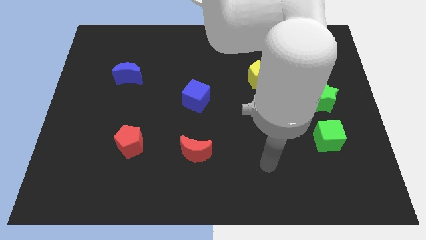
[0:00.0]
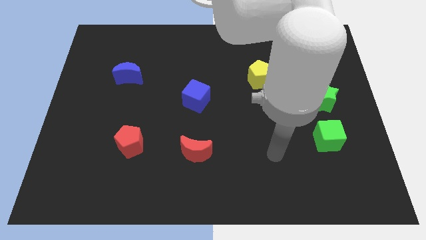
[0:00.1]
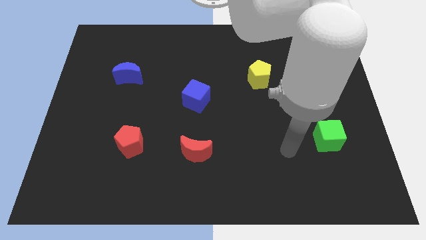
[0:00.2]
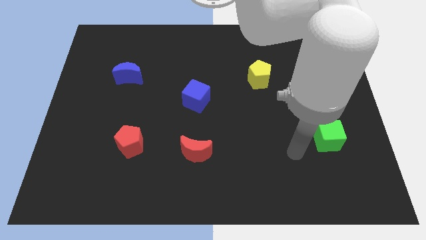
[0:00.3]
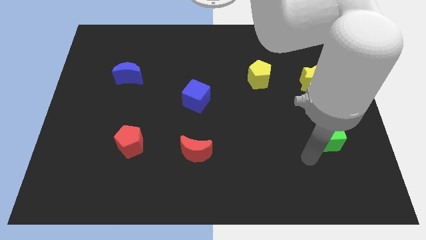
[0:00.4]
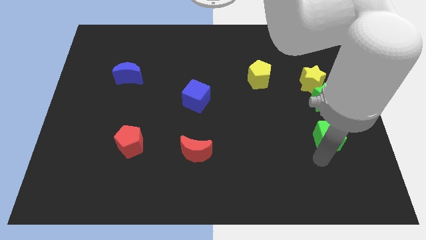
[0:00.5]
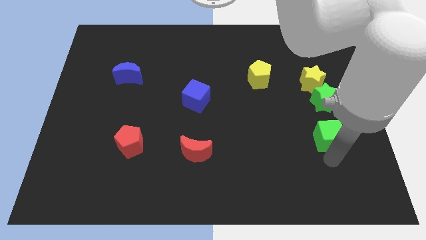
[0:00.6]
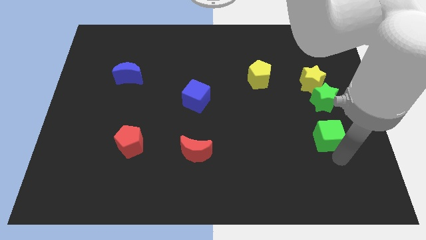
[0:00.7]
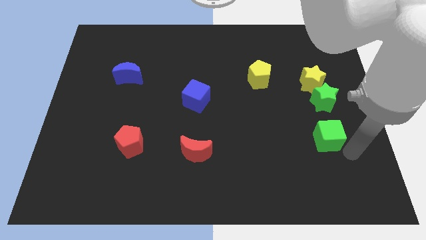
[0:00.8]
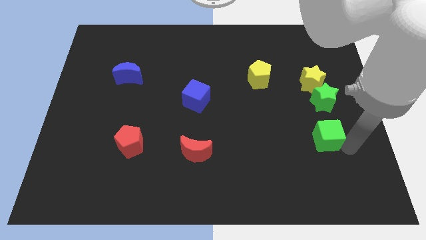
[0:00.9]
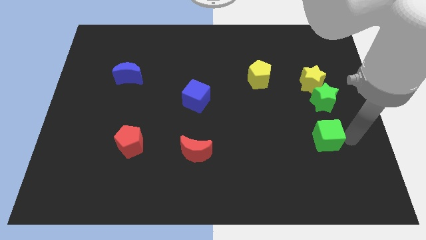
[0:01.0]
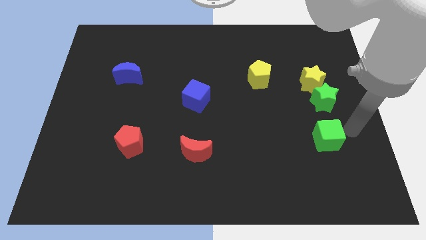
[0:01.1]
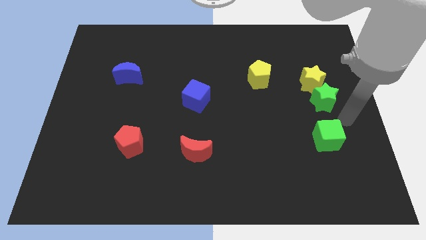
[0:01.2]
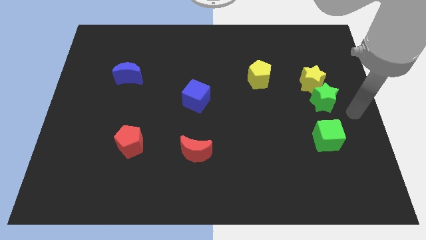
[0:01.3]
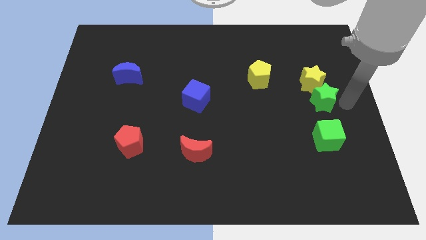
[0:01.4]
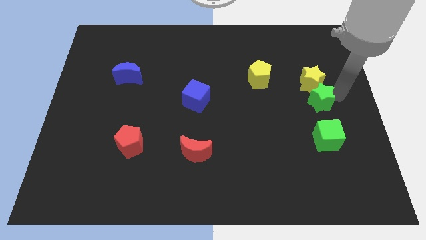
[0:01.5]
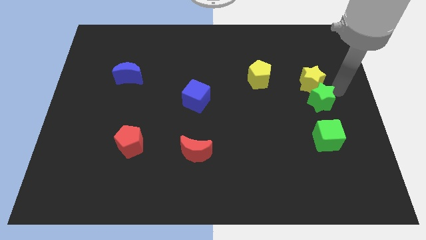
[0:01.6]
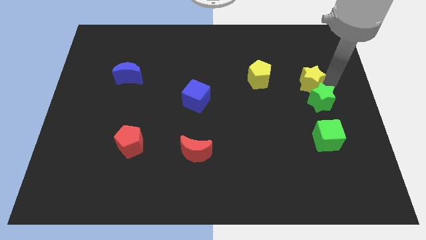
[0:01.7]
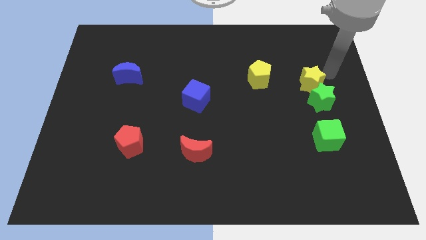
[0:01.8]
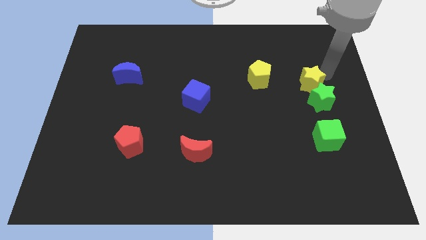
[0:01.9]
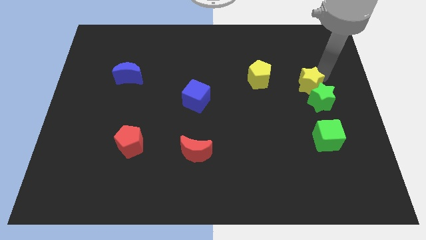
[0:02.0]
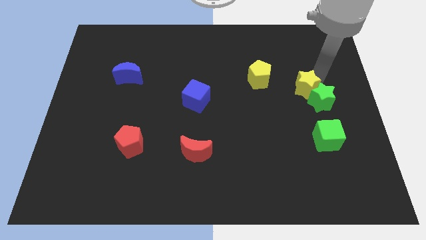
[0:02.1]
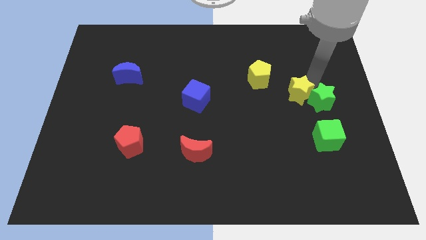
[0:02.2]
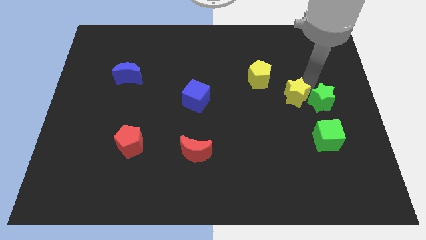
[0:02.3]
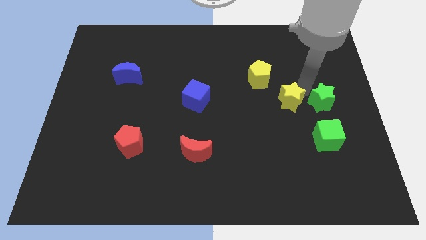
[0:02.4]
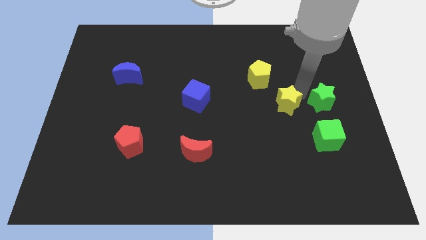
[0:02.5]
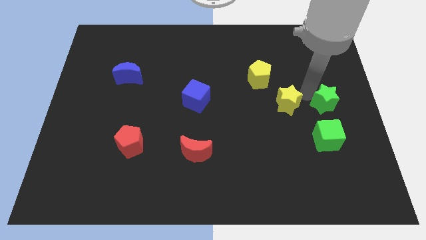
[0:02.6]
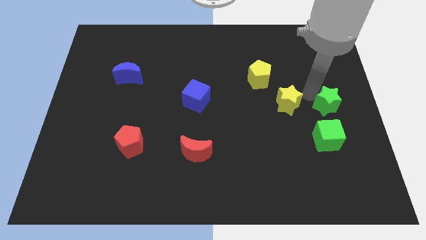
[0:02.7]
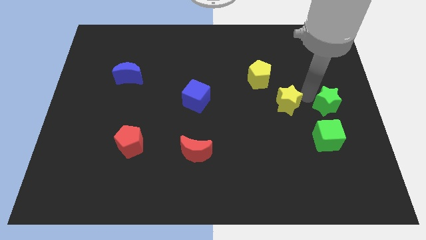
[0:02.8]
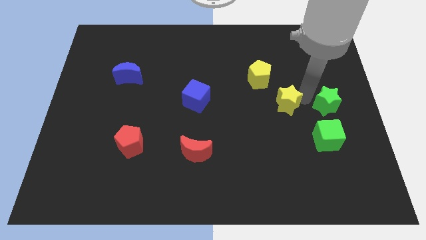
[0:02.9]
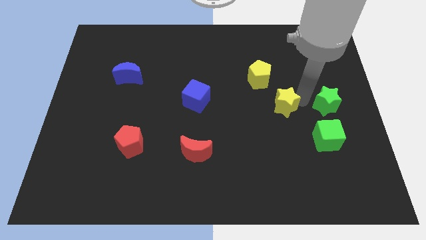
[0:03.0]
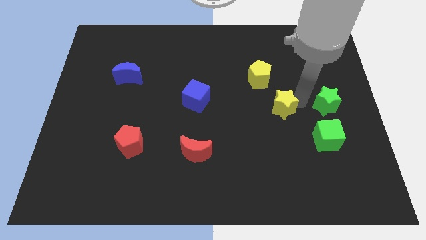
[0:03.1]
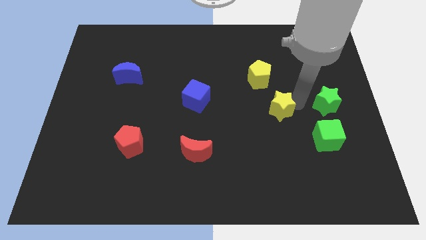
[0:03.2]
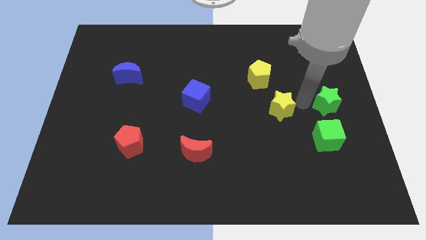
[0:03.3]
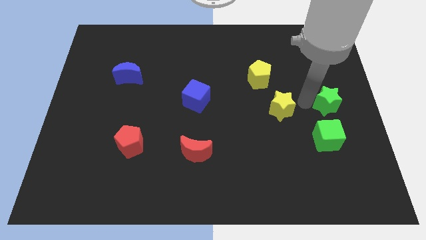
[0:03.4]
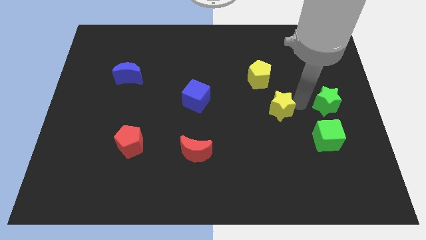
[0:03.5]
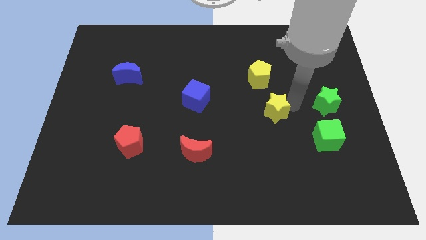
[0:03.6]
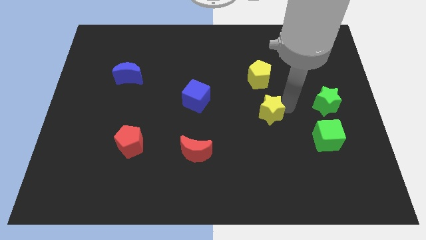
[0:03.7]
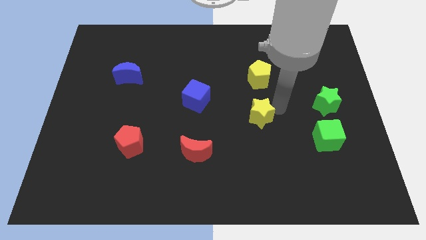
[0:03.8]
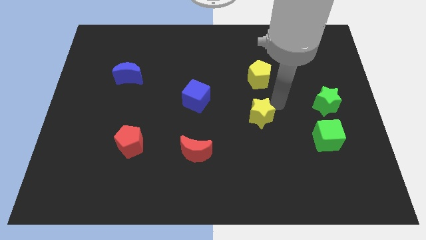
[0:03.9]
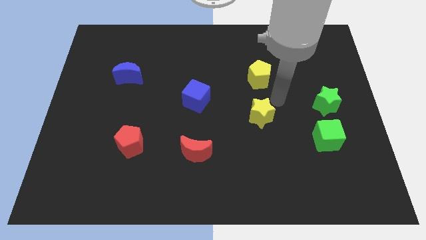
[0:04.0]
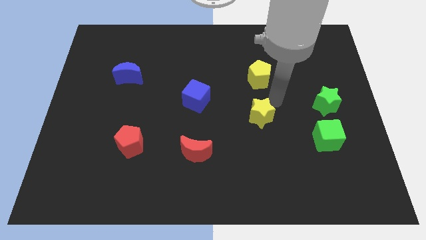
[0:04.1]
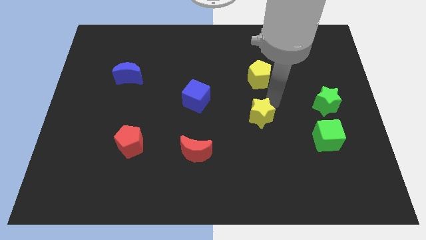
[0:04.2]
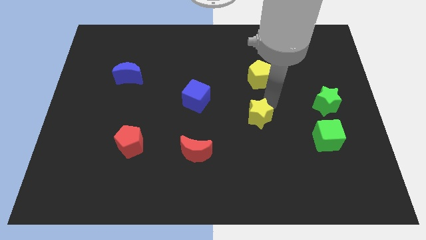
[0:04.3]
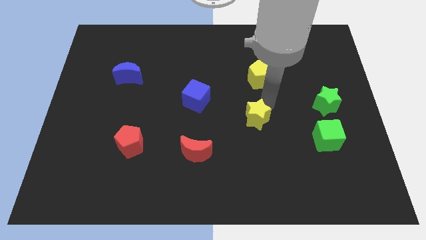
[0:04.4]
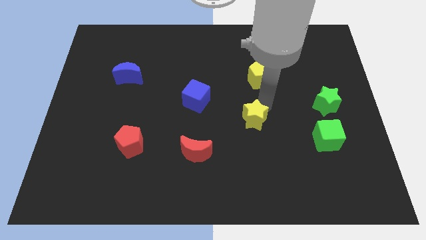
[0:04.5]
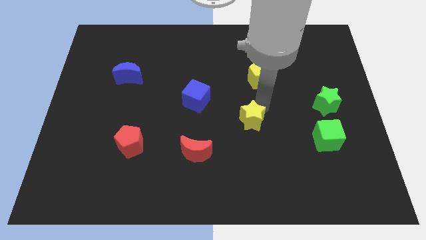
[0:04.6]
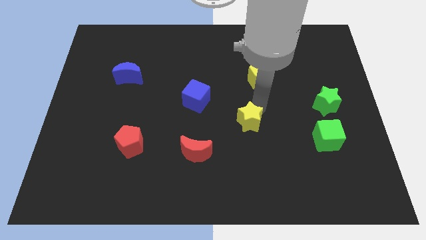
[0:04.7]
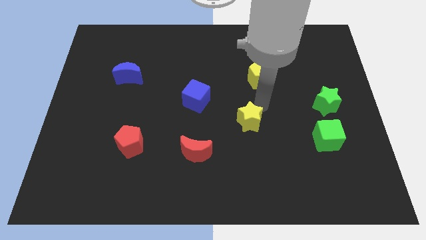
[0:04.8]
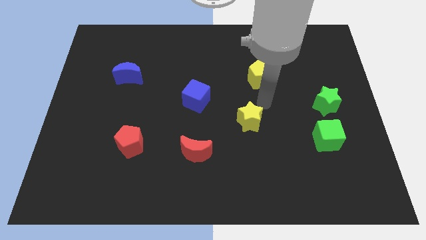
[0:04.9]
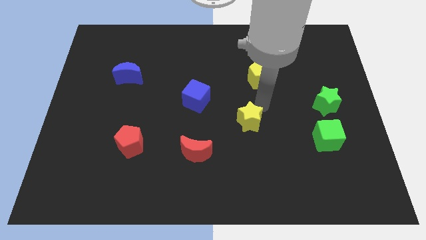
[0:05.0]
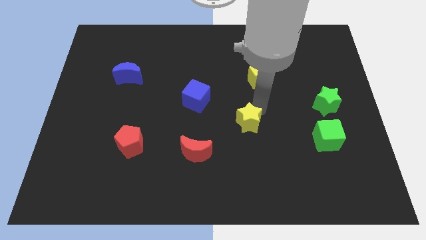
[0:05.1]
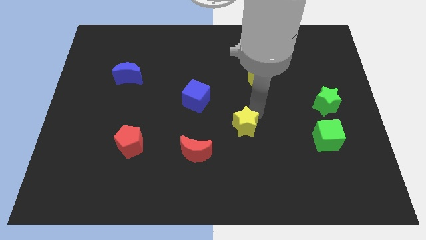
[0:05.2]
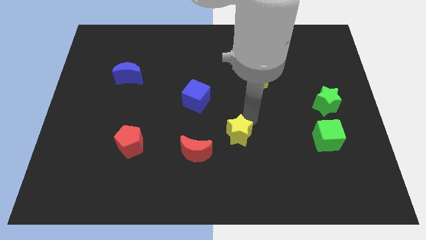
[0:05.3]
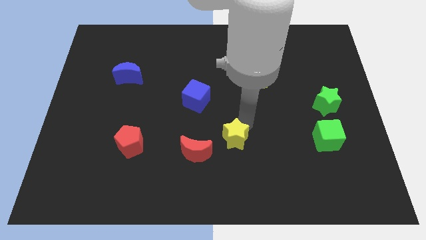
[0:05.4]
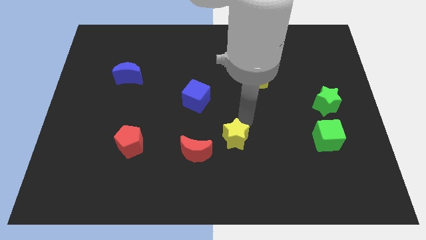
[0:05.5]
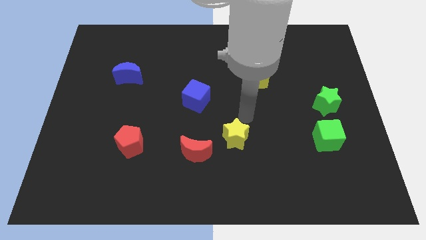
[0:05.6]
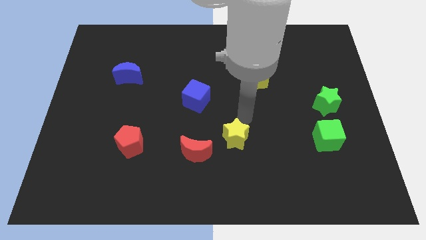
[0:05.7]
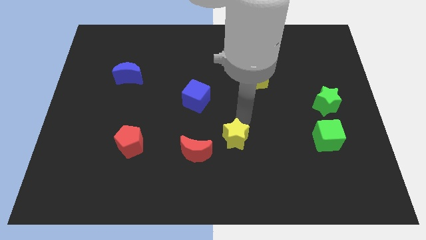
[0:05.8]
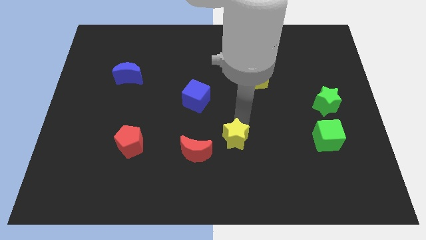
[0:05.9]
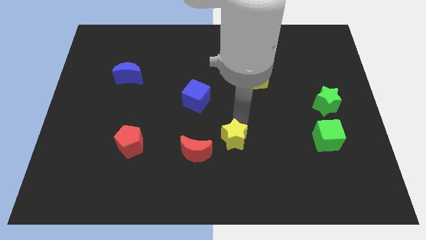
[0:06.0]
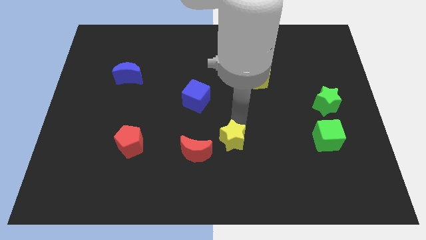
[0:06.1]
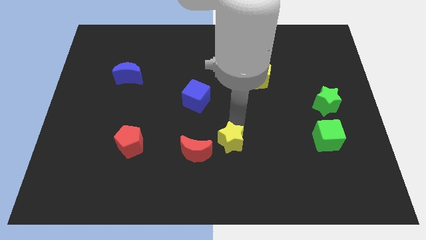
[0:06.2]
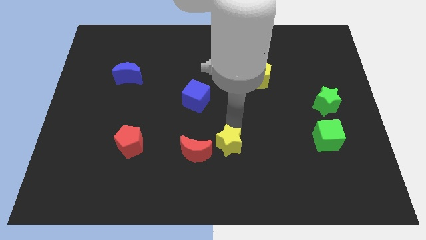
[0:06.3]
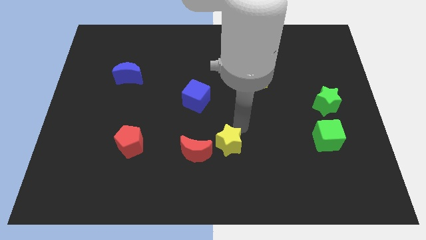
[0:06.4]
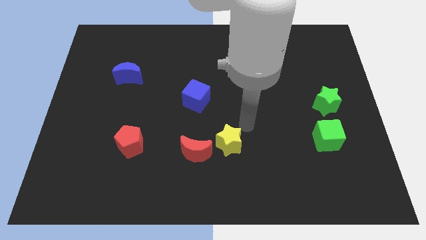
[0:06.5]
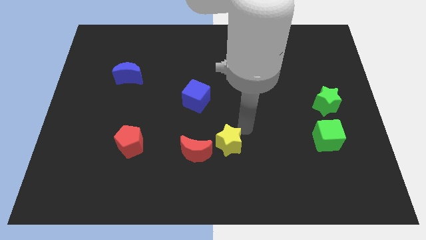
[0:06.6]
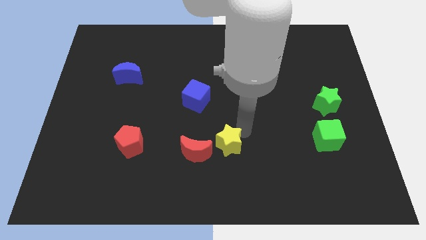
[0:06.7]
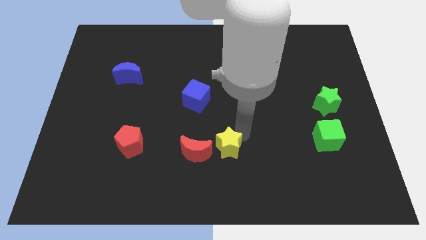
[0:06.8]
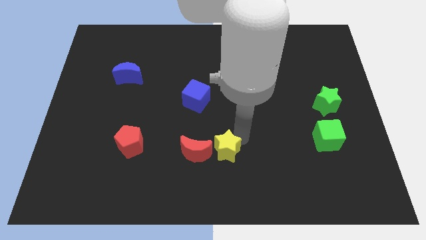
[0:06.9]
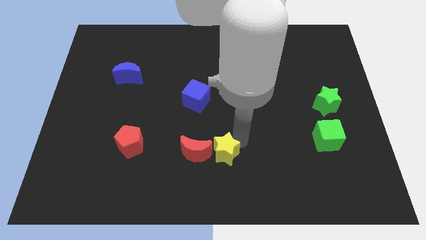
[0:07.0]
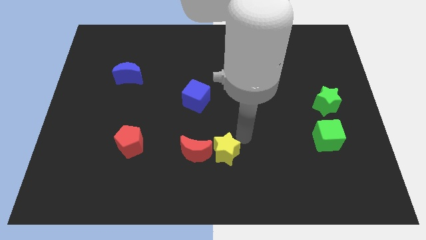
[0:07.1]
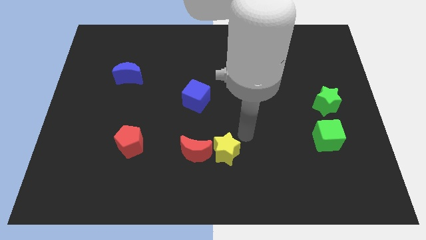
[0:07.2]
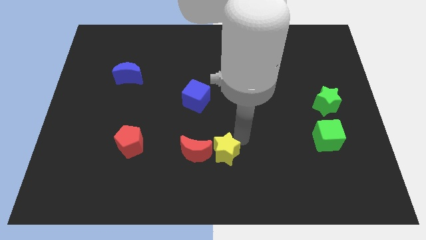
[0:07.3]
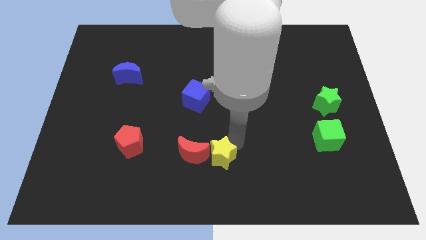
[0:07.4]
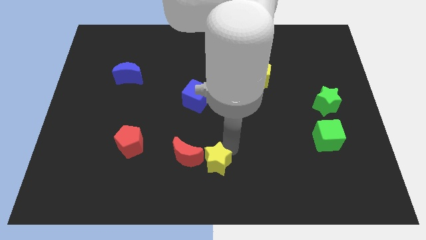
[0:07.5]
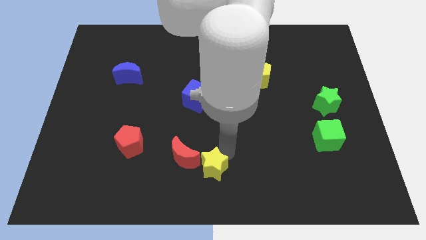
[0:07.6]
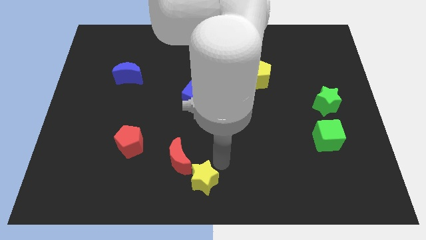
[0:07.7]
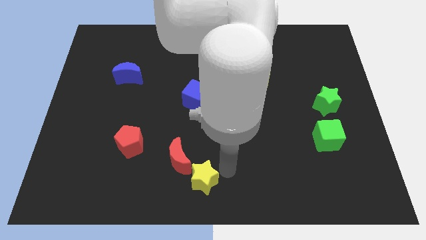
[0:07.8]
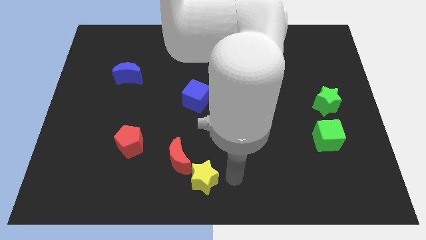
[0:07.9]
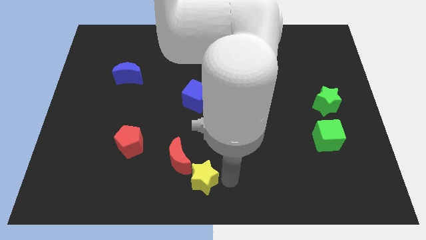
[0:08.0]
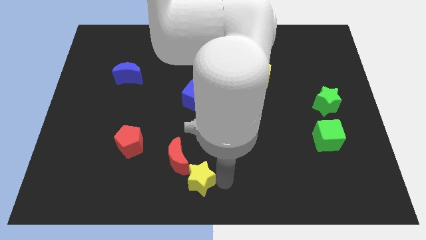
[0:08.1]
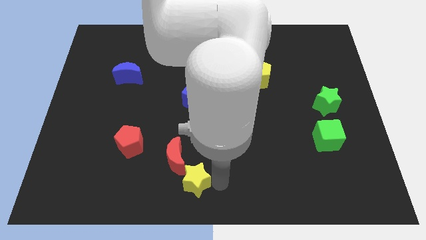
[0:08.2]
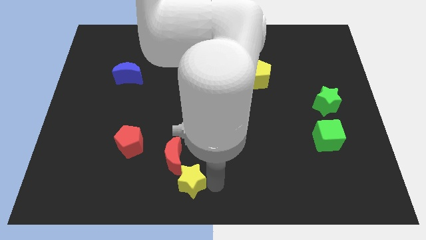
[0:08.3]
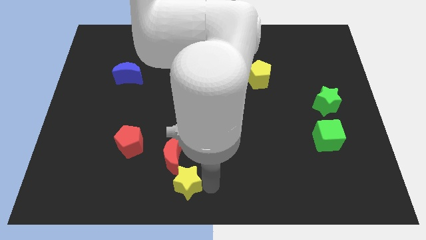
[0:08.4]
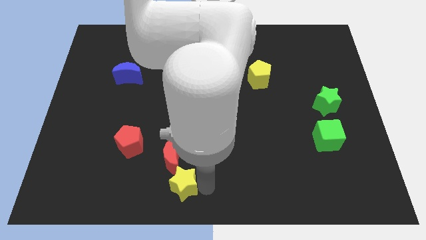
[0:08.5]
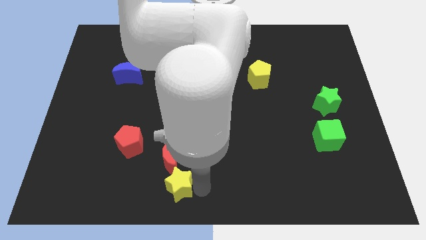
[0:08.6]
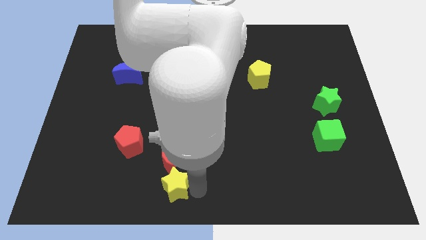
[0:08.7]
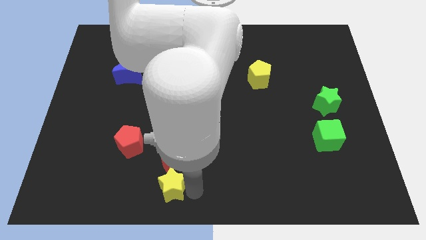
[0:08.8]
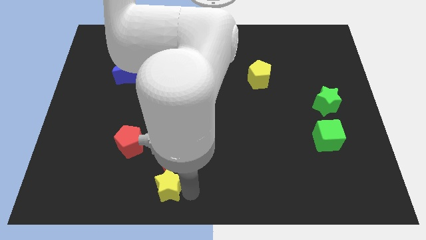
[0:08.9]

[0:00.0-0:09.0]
slide the yellow star to the bottom left side of the red moon
